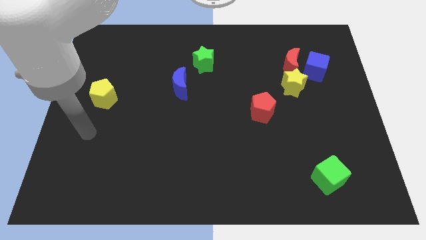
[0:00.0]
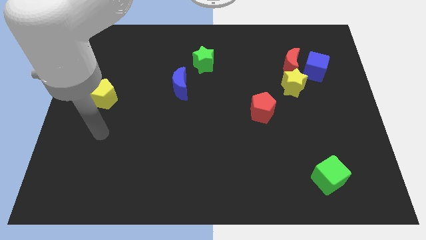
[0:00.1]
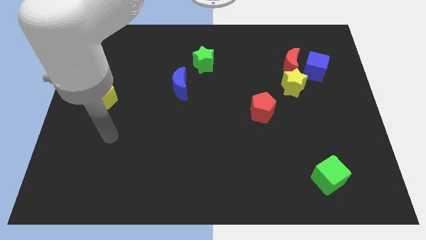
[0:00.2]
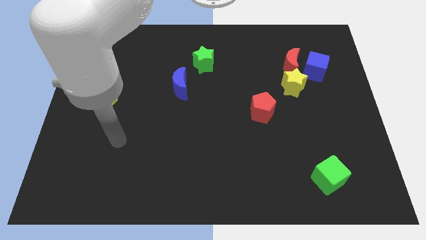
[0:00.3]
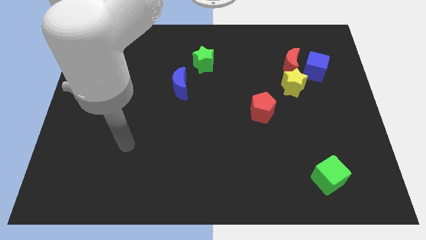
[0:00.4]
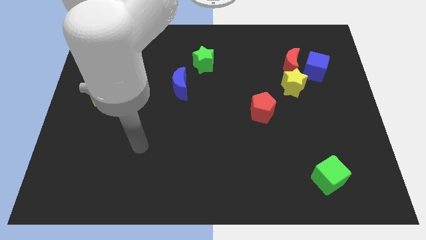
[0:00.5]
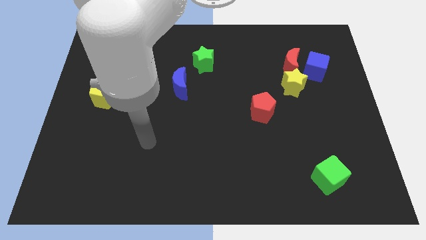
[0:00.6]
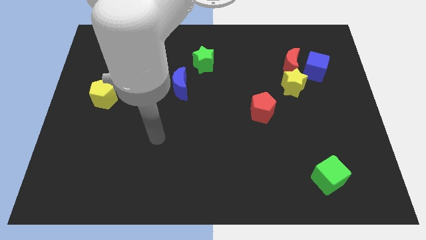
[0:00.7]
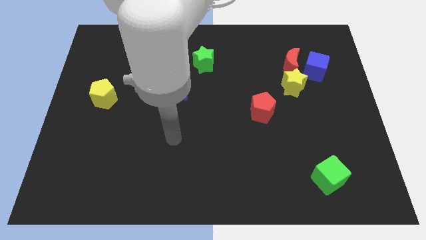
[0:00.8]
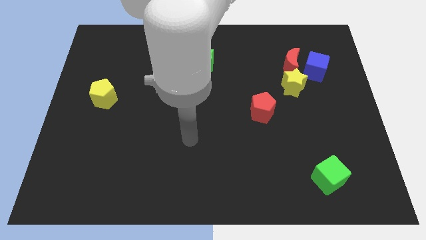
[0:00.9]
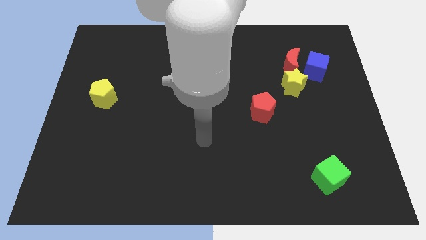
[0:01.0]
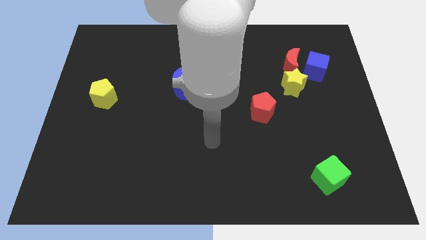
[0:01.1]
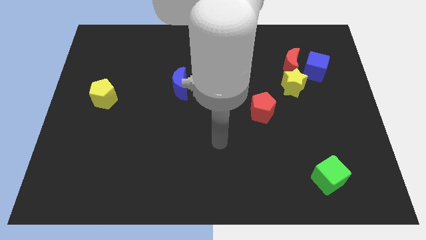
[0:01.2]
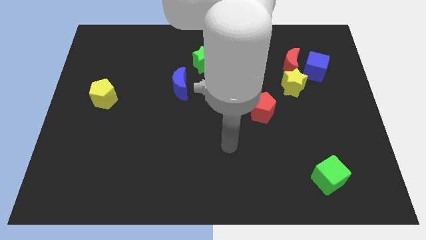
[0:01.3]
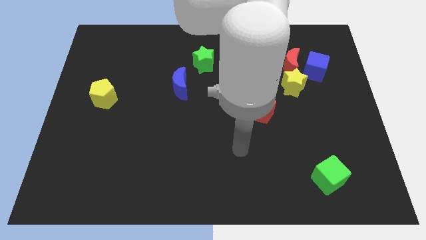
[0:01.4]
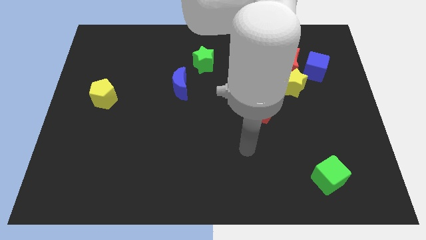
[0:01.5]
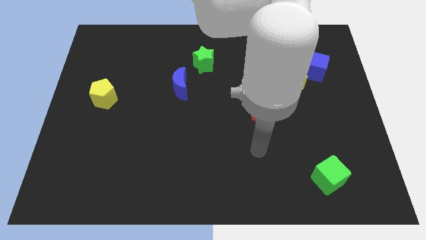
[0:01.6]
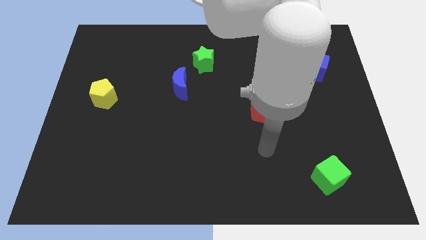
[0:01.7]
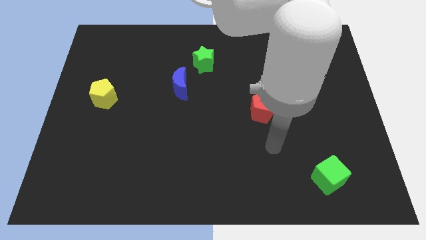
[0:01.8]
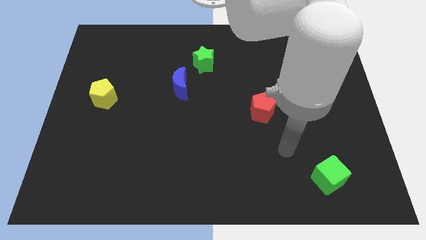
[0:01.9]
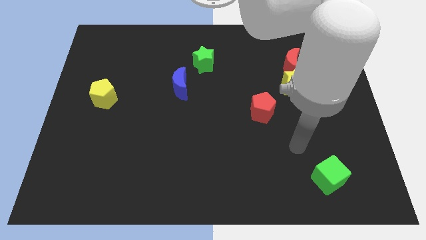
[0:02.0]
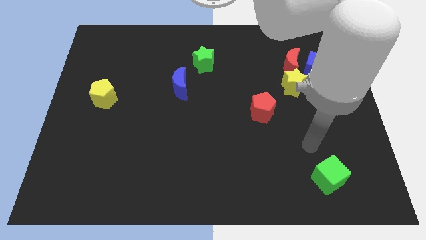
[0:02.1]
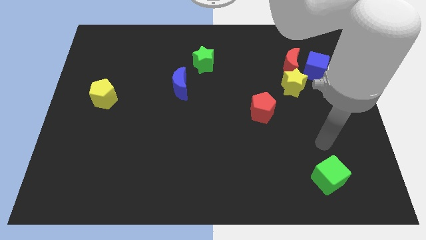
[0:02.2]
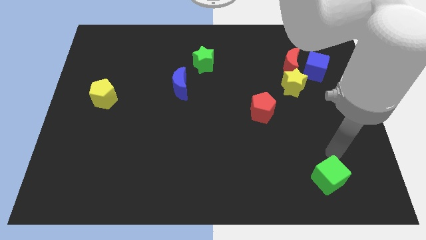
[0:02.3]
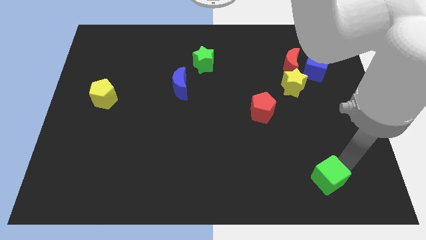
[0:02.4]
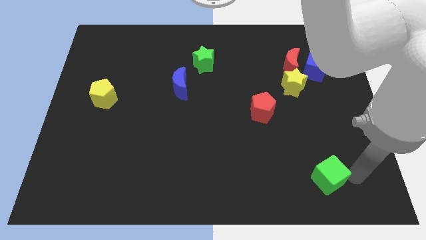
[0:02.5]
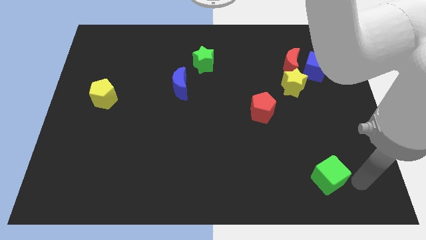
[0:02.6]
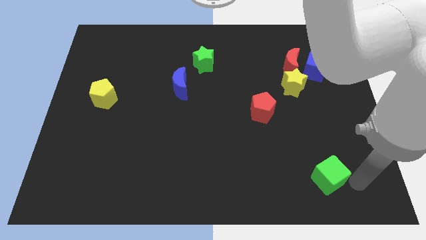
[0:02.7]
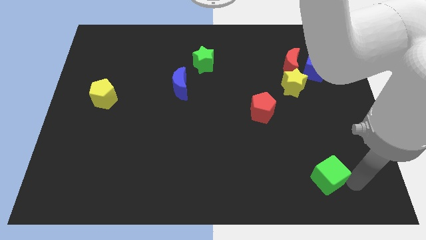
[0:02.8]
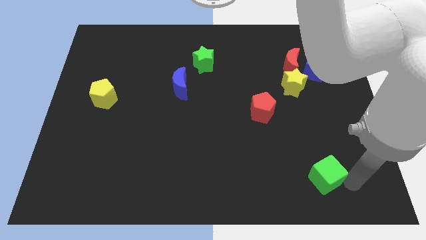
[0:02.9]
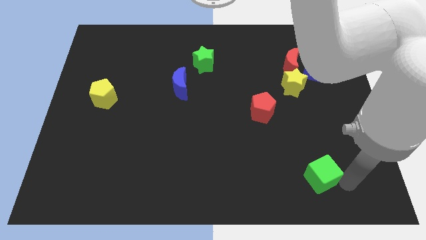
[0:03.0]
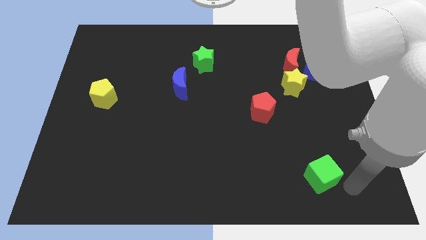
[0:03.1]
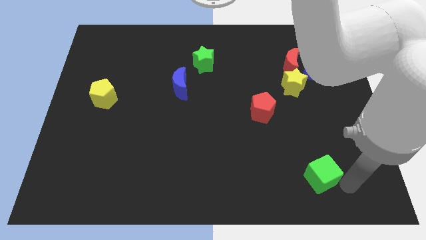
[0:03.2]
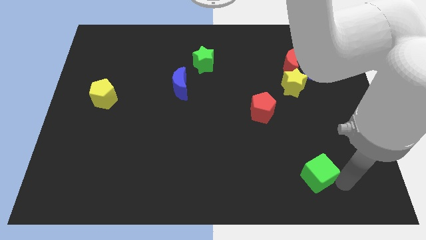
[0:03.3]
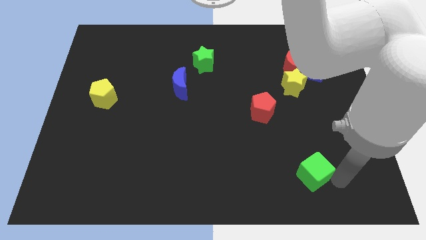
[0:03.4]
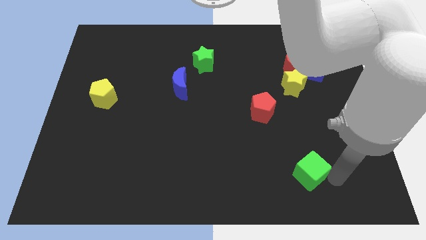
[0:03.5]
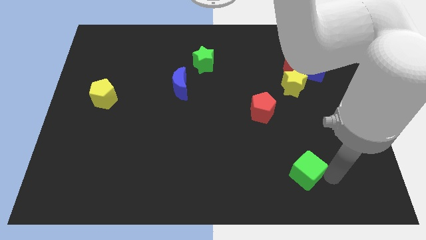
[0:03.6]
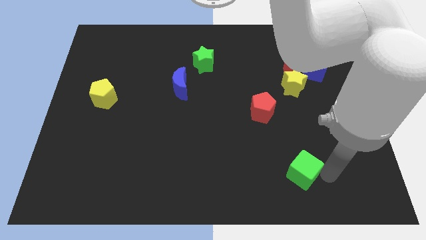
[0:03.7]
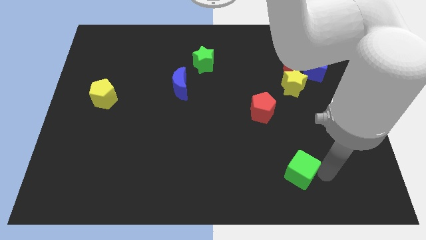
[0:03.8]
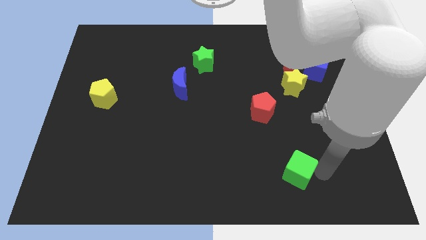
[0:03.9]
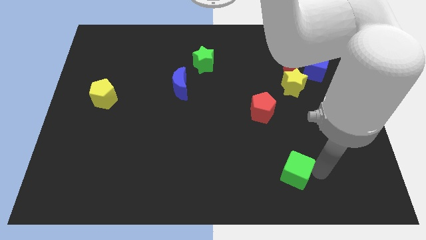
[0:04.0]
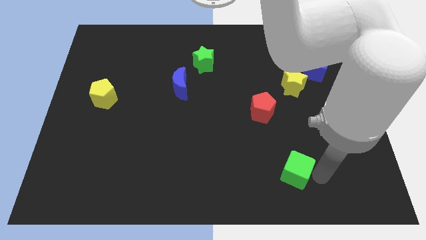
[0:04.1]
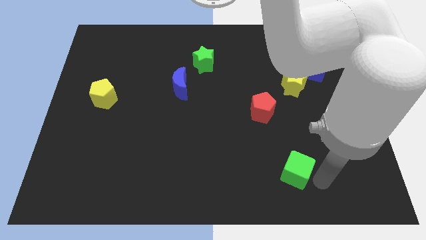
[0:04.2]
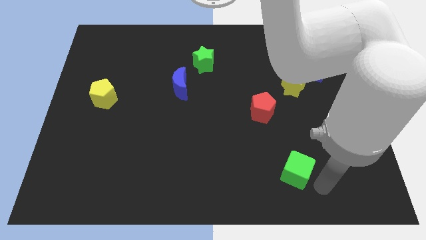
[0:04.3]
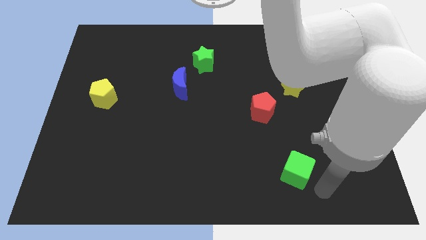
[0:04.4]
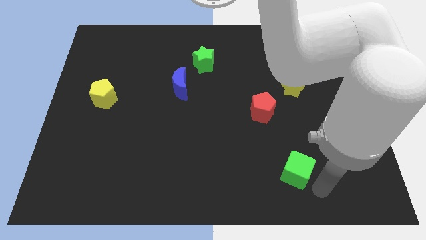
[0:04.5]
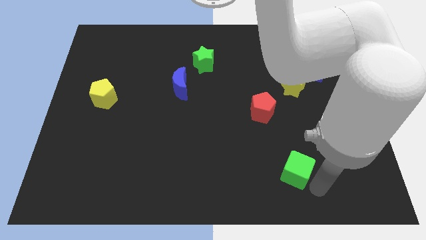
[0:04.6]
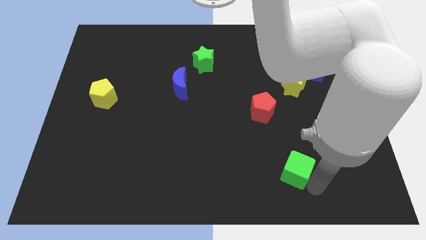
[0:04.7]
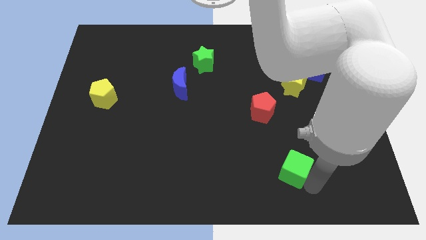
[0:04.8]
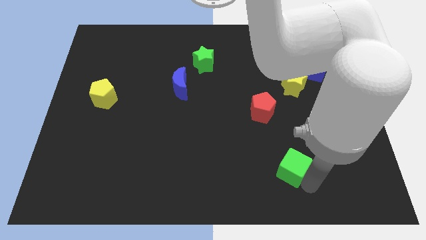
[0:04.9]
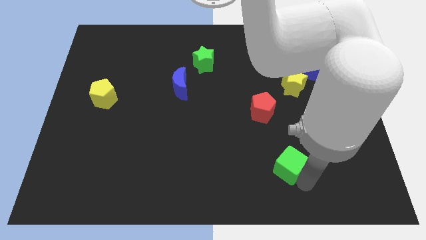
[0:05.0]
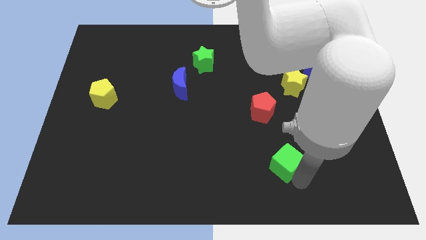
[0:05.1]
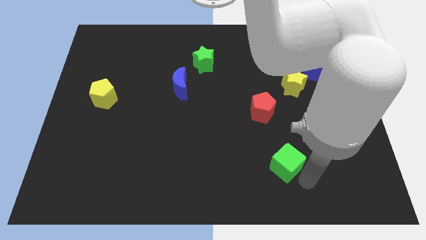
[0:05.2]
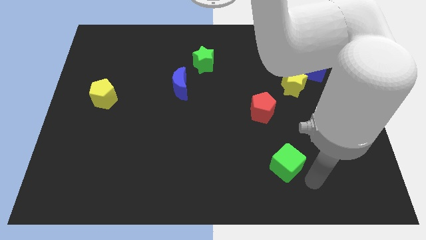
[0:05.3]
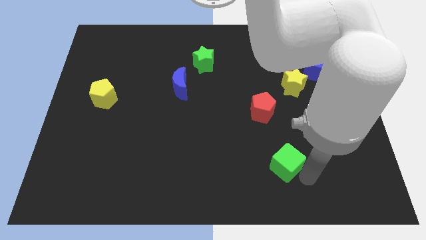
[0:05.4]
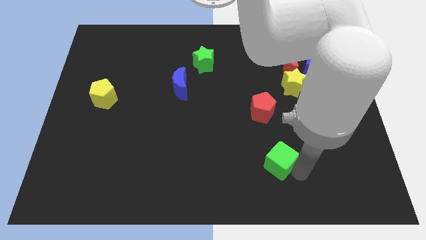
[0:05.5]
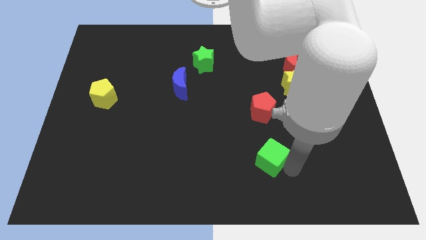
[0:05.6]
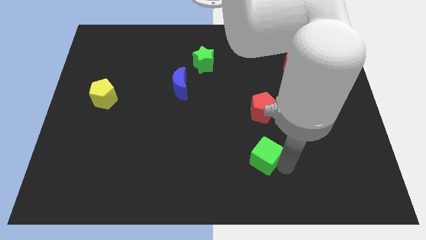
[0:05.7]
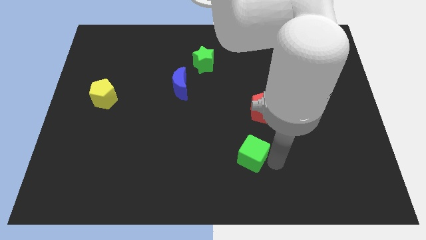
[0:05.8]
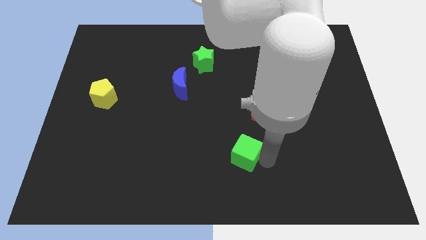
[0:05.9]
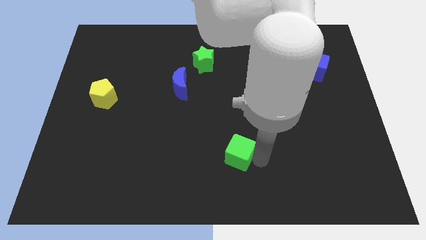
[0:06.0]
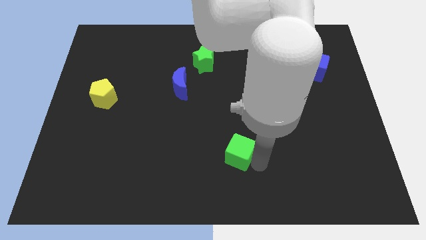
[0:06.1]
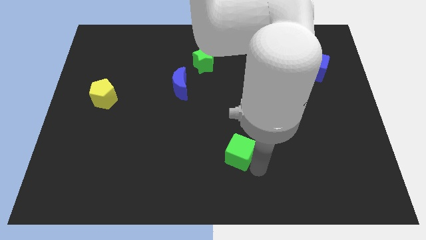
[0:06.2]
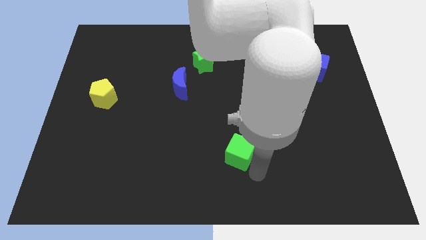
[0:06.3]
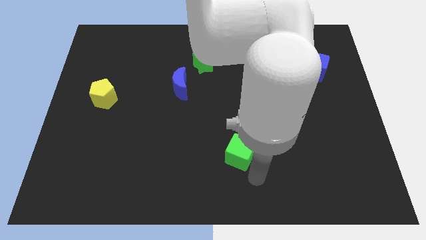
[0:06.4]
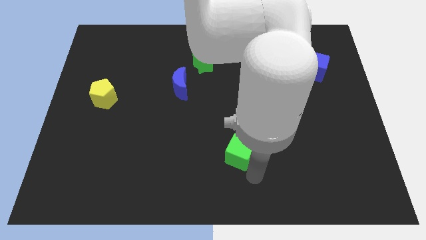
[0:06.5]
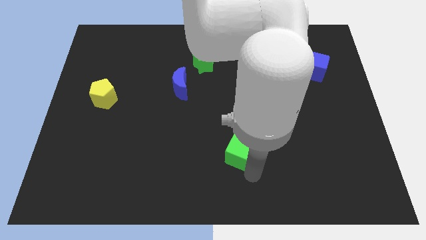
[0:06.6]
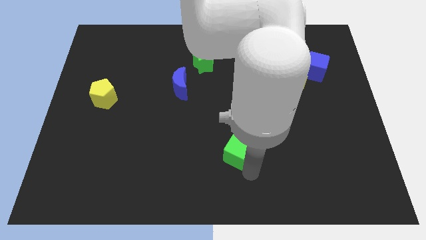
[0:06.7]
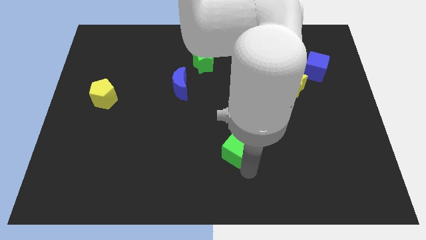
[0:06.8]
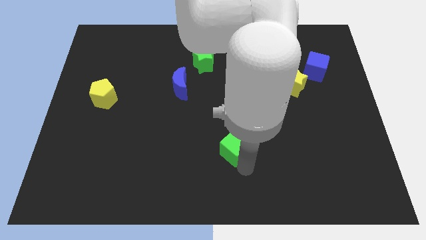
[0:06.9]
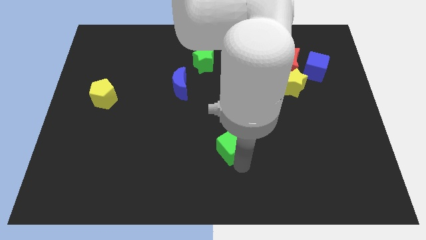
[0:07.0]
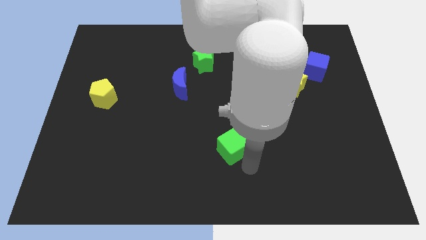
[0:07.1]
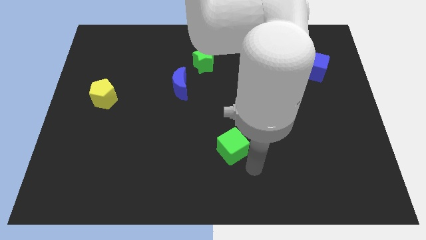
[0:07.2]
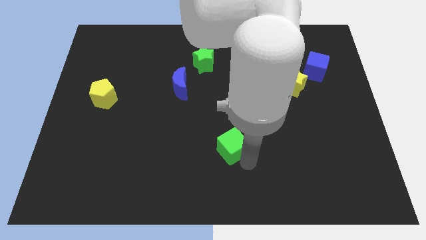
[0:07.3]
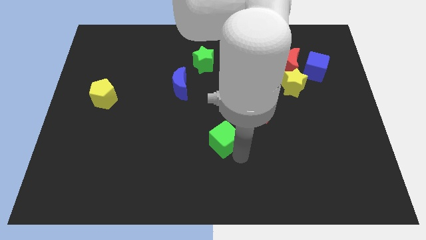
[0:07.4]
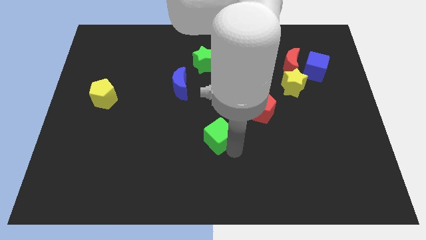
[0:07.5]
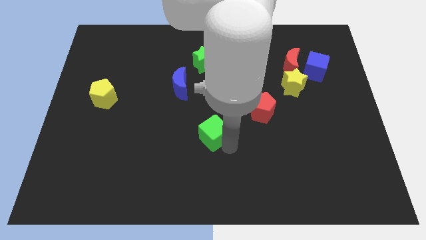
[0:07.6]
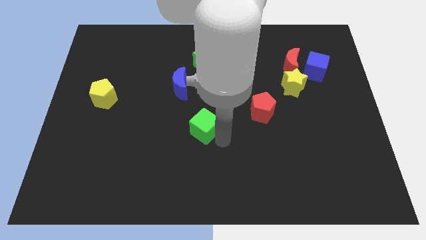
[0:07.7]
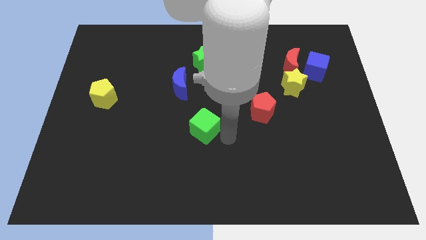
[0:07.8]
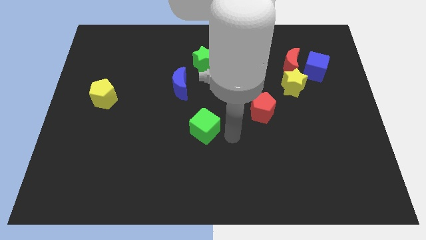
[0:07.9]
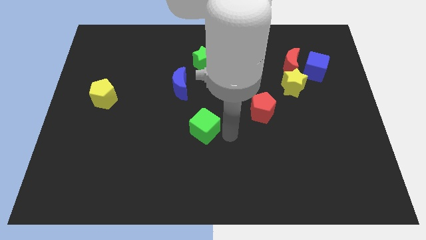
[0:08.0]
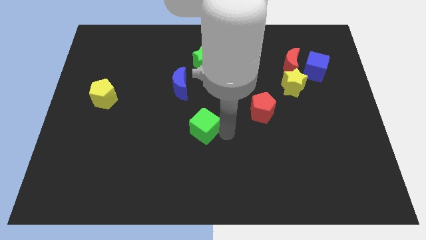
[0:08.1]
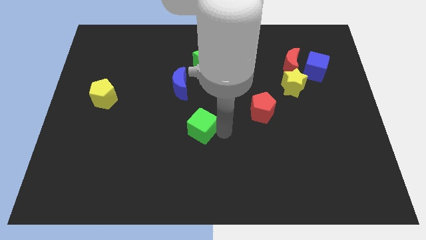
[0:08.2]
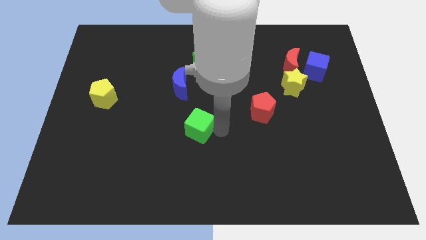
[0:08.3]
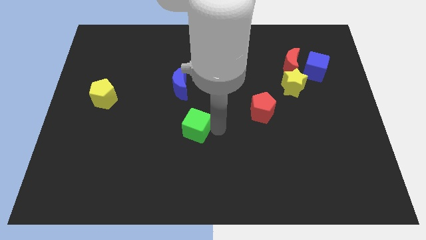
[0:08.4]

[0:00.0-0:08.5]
move the green cube below the blue moon
